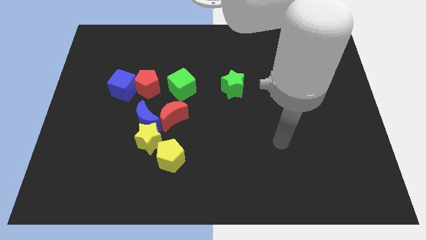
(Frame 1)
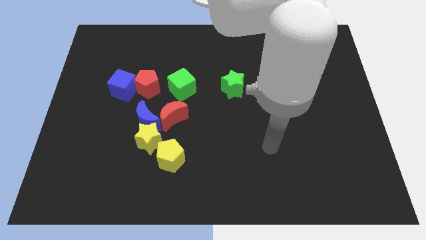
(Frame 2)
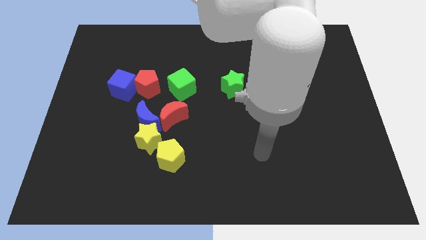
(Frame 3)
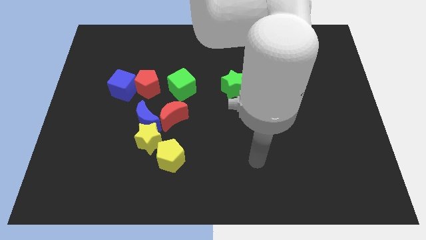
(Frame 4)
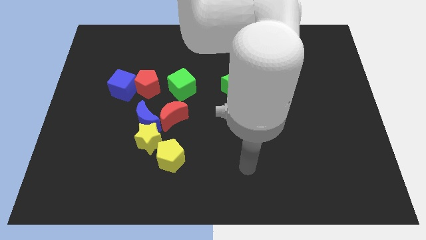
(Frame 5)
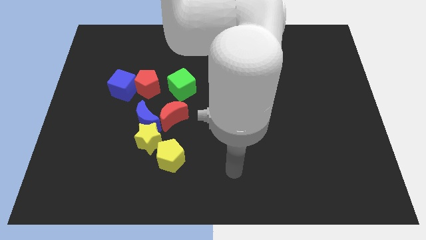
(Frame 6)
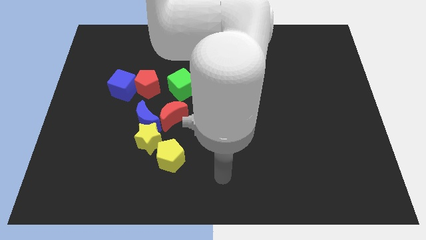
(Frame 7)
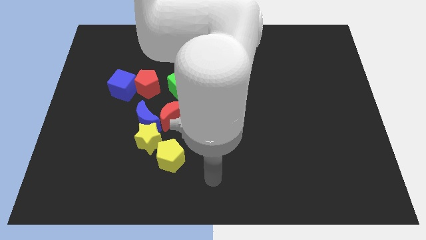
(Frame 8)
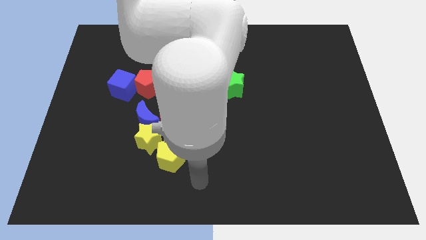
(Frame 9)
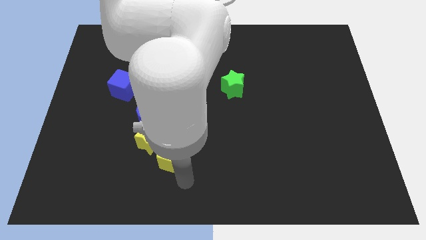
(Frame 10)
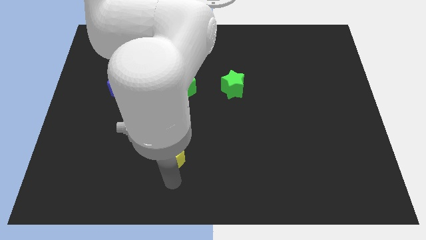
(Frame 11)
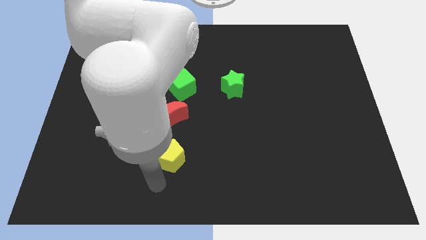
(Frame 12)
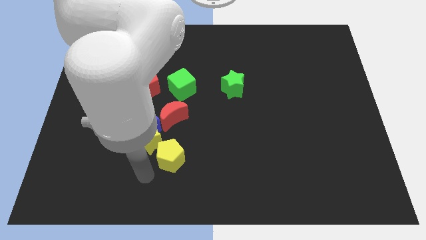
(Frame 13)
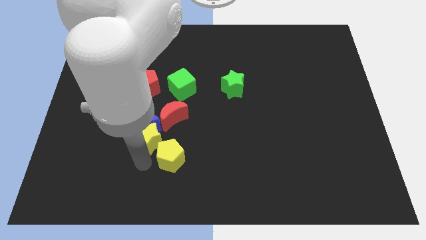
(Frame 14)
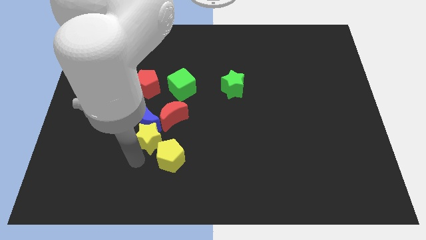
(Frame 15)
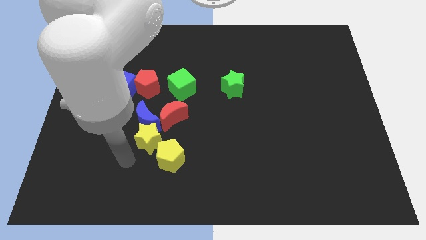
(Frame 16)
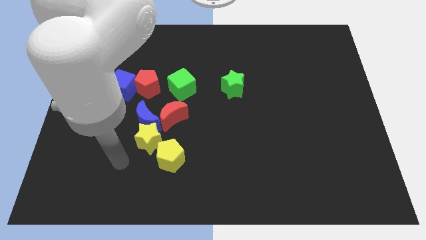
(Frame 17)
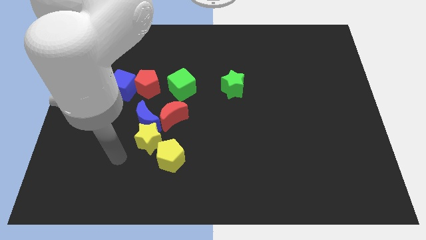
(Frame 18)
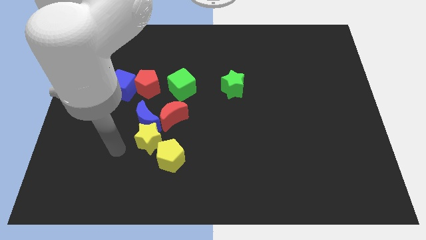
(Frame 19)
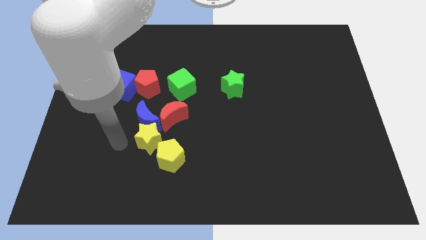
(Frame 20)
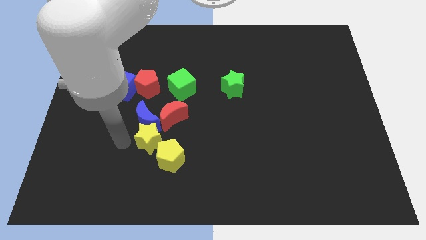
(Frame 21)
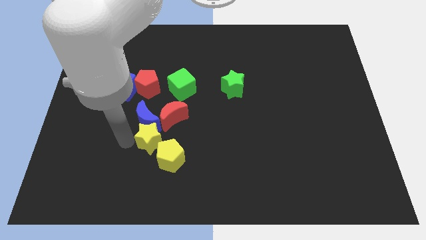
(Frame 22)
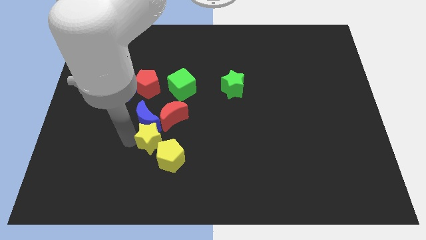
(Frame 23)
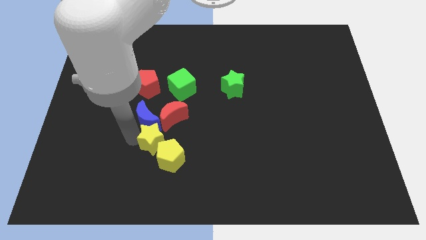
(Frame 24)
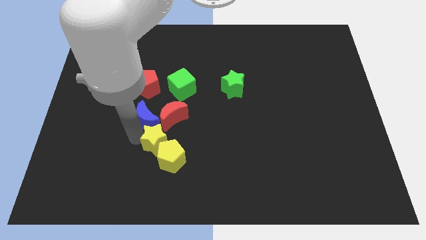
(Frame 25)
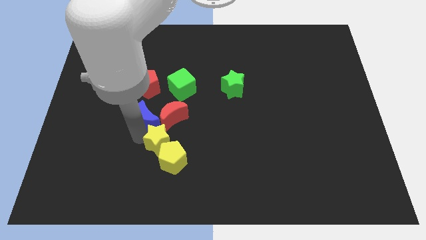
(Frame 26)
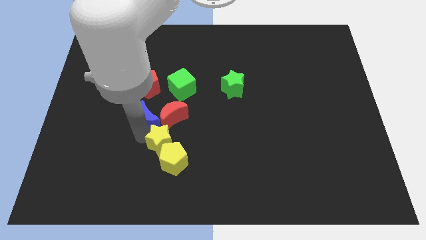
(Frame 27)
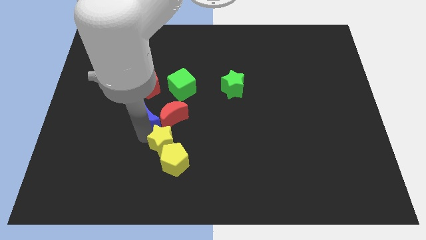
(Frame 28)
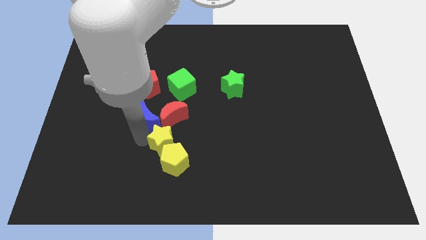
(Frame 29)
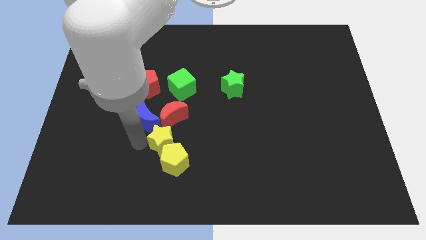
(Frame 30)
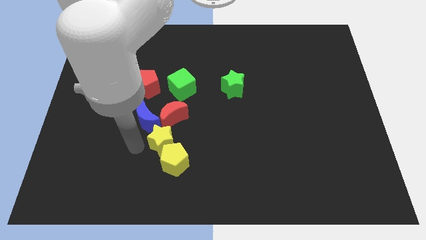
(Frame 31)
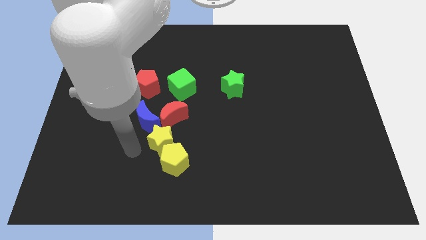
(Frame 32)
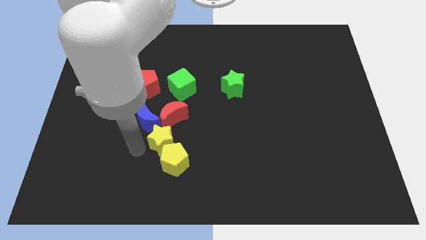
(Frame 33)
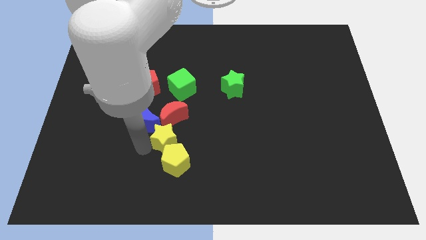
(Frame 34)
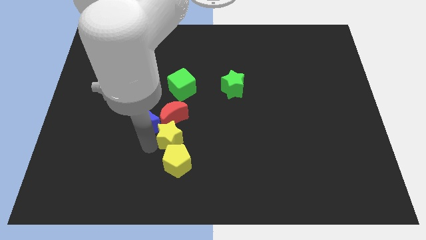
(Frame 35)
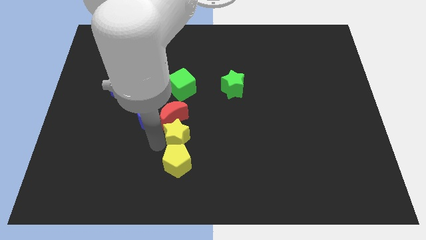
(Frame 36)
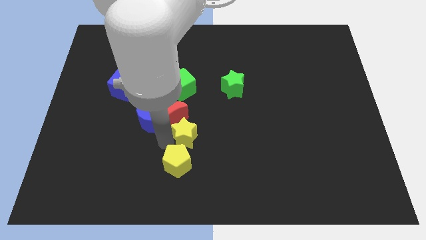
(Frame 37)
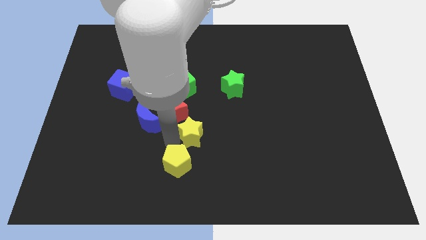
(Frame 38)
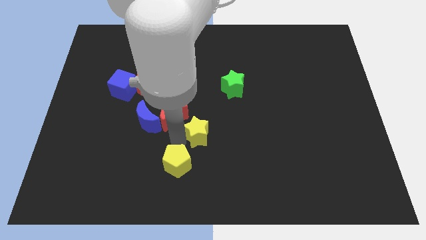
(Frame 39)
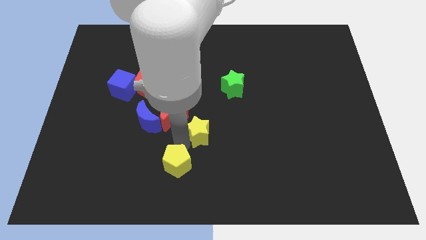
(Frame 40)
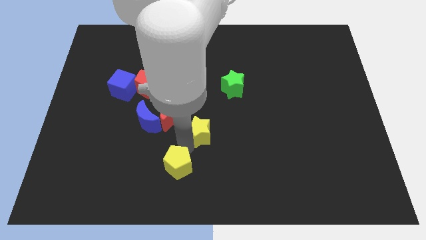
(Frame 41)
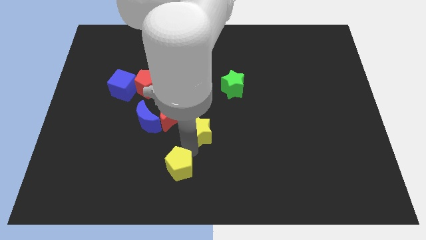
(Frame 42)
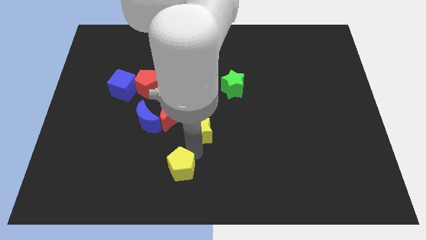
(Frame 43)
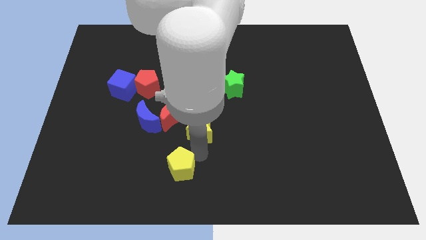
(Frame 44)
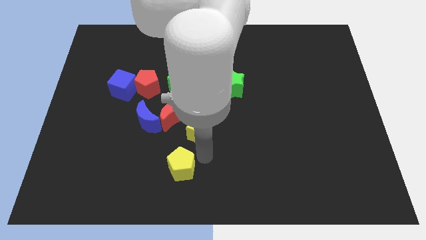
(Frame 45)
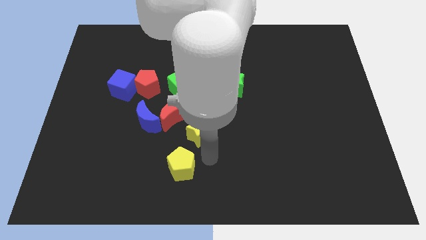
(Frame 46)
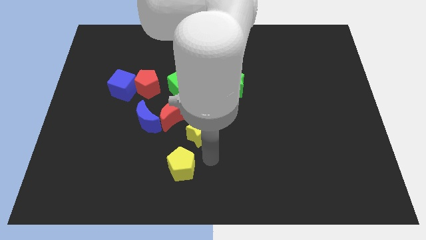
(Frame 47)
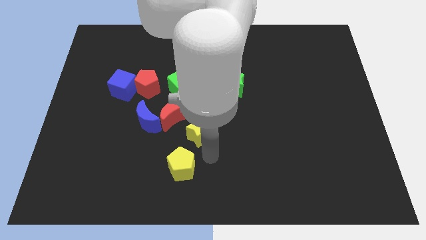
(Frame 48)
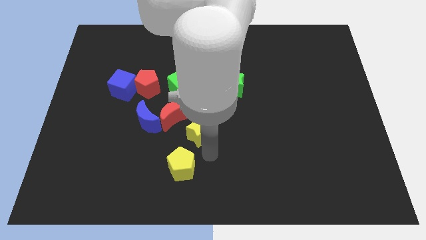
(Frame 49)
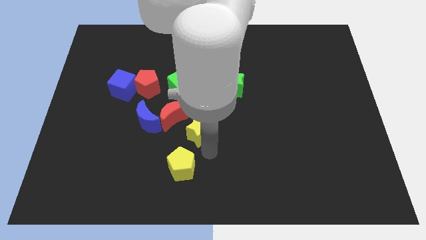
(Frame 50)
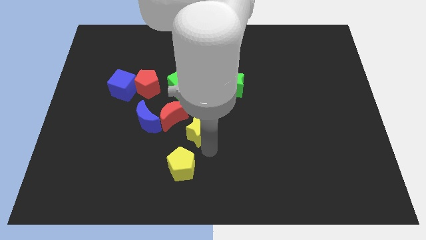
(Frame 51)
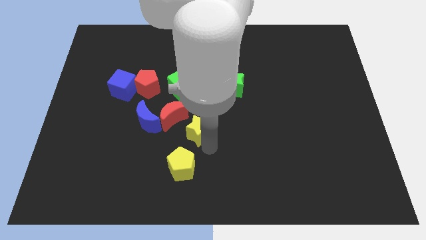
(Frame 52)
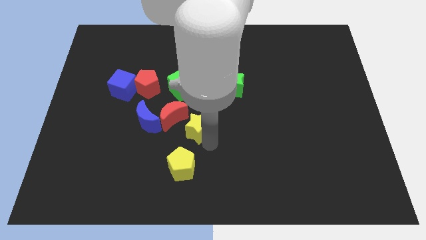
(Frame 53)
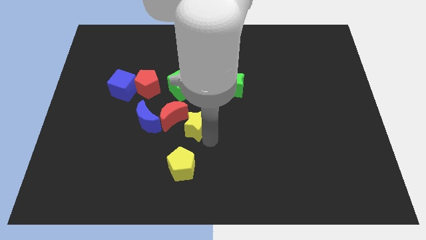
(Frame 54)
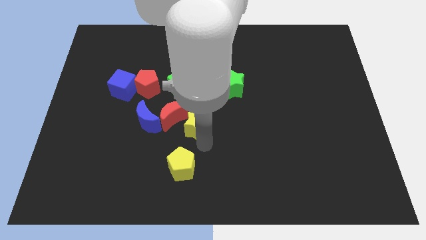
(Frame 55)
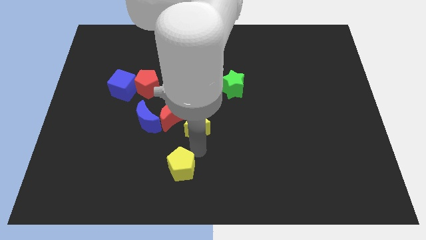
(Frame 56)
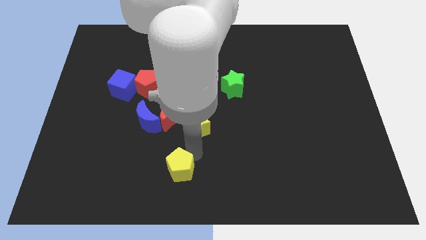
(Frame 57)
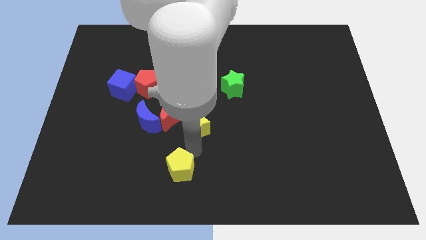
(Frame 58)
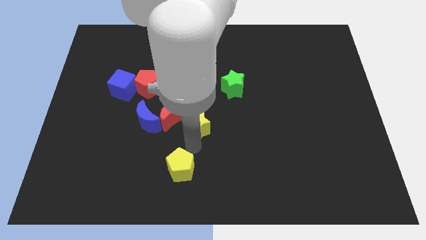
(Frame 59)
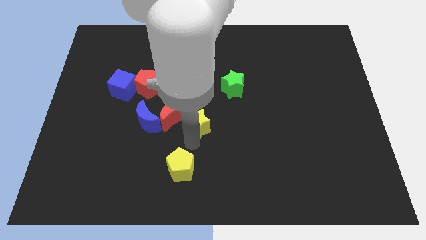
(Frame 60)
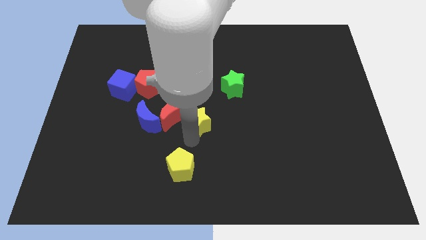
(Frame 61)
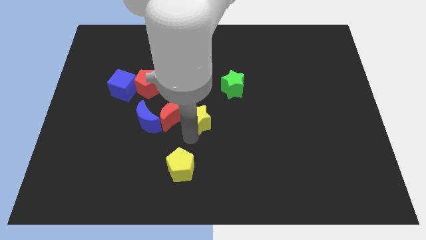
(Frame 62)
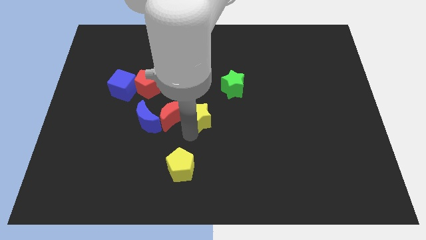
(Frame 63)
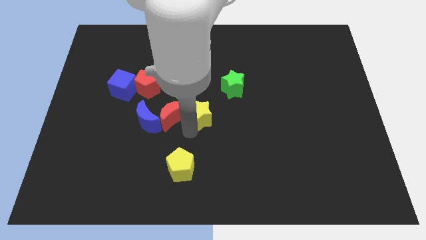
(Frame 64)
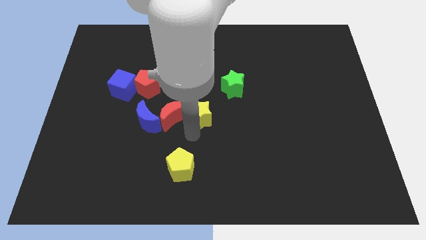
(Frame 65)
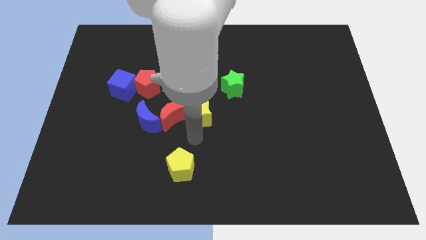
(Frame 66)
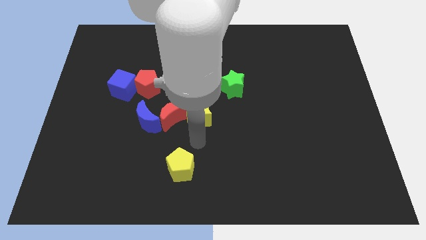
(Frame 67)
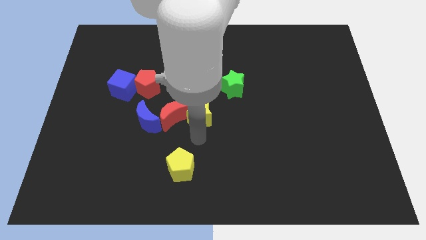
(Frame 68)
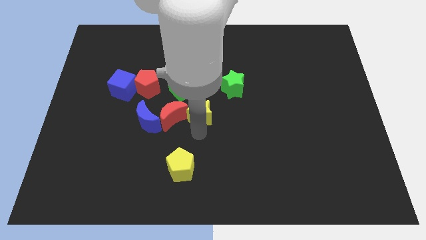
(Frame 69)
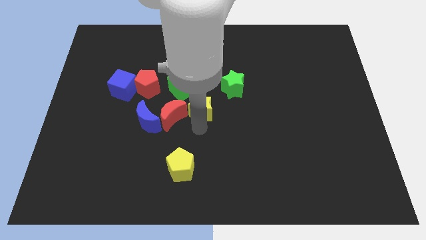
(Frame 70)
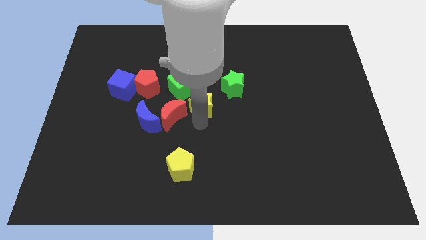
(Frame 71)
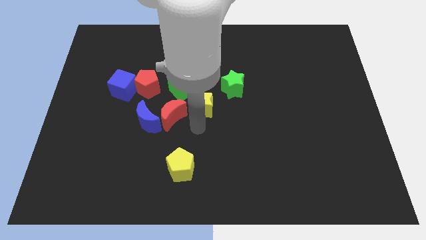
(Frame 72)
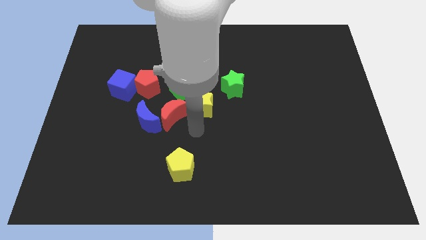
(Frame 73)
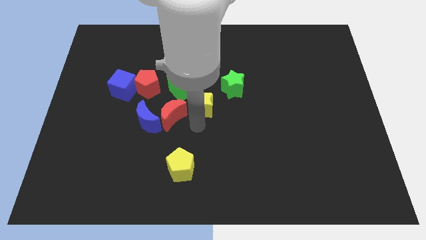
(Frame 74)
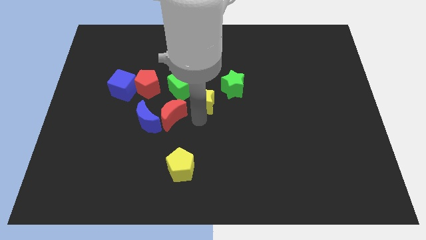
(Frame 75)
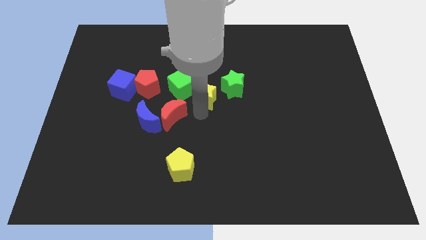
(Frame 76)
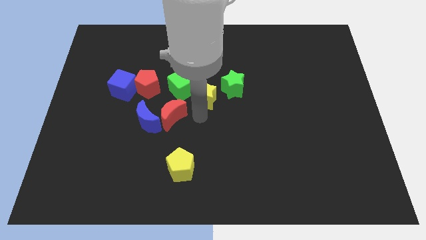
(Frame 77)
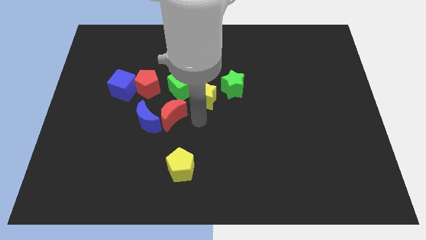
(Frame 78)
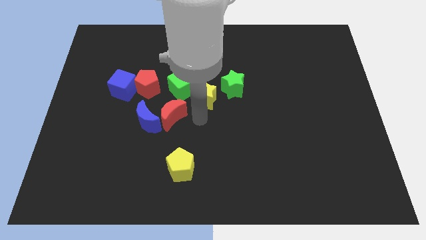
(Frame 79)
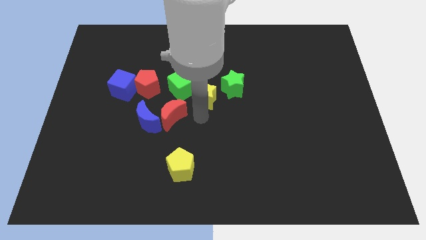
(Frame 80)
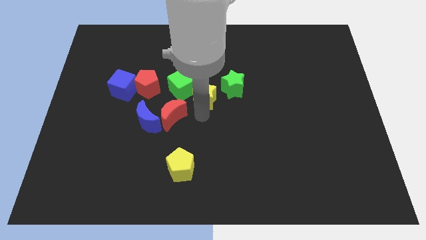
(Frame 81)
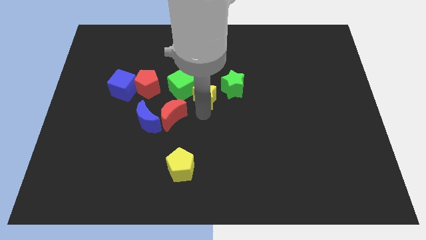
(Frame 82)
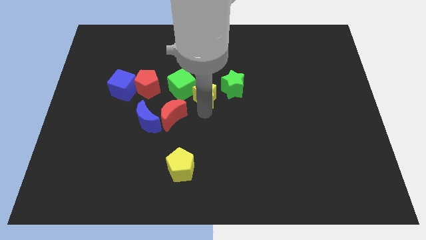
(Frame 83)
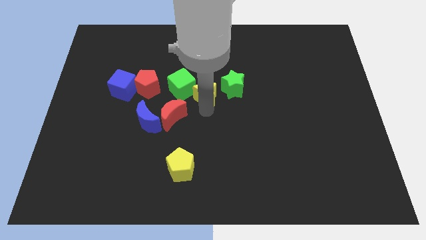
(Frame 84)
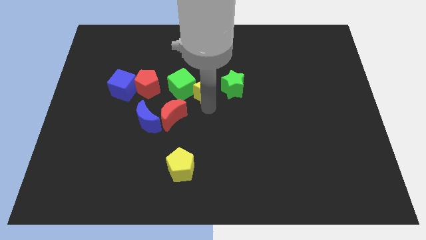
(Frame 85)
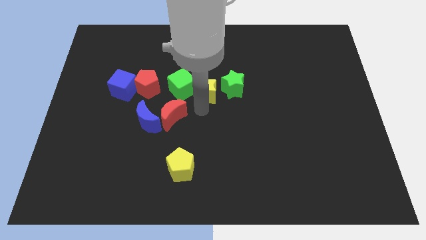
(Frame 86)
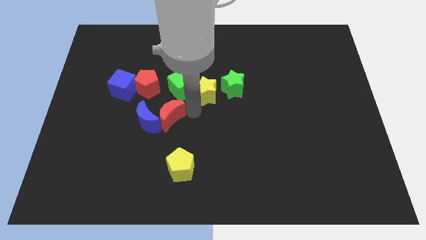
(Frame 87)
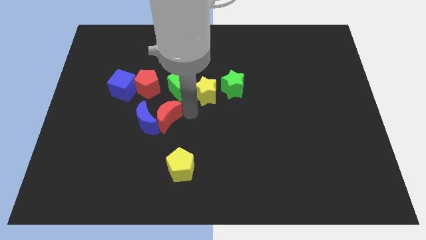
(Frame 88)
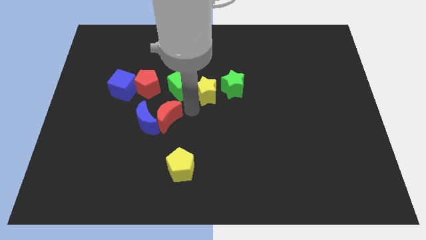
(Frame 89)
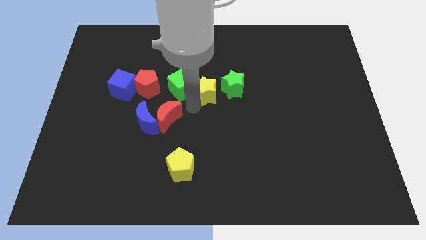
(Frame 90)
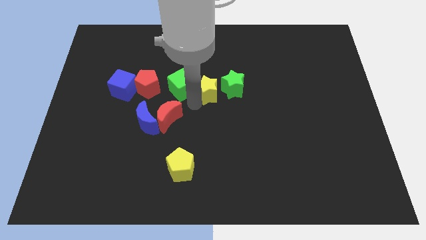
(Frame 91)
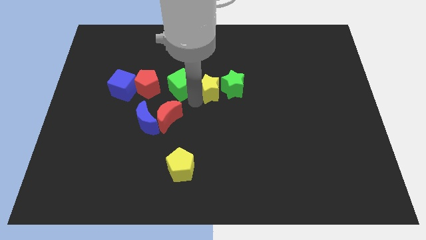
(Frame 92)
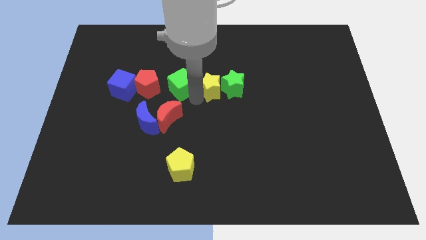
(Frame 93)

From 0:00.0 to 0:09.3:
move the yellow star up and right diagonally
